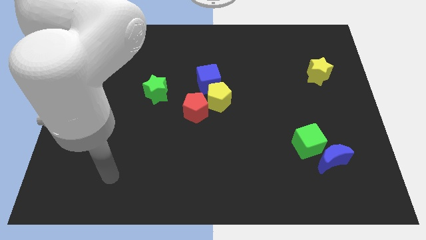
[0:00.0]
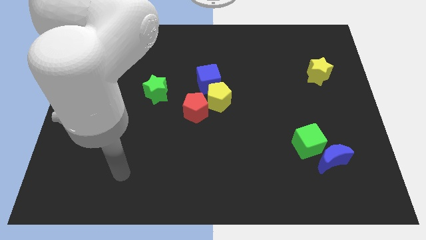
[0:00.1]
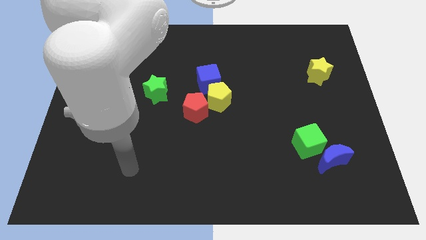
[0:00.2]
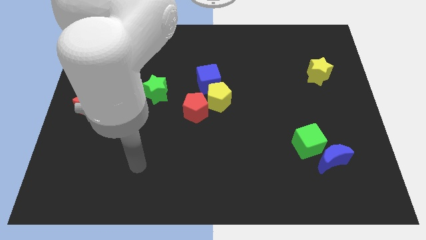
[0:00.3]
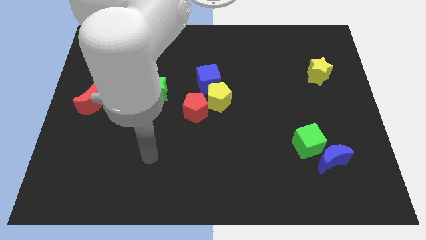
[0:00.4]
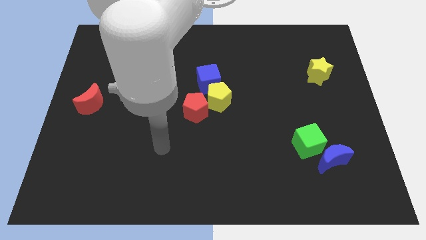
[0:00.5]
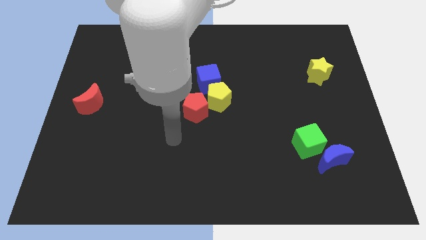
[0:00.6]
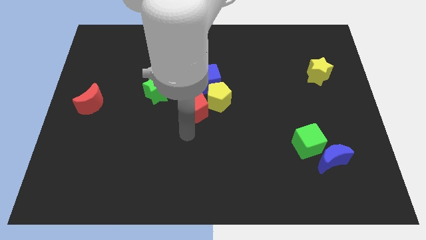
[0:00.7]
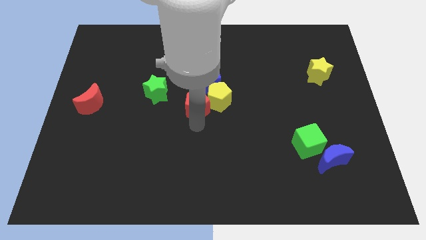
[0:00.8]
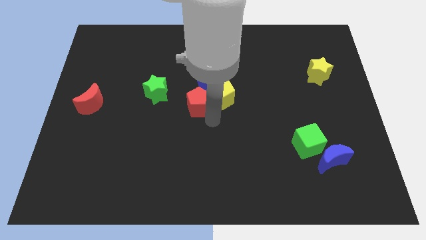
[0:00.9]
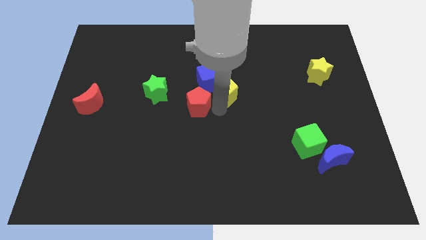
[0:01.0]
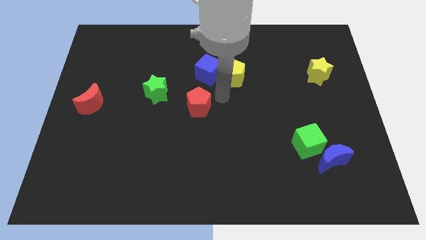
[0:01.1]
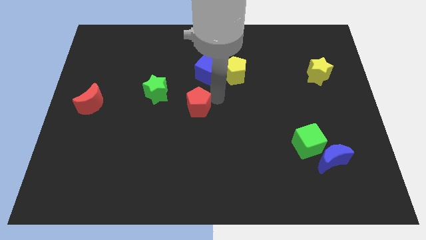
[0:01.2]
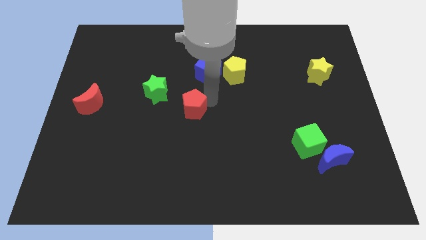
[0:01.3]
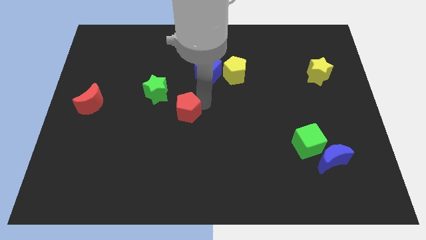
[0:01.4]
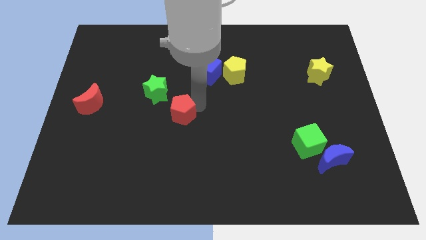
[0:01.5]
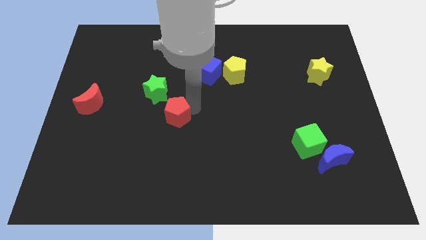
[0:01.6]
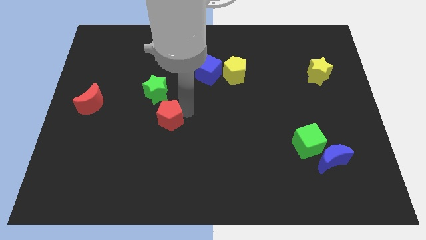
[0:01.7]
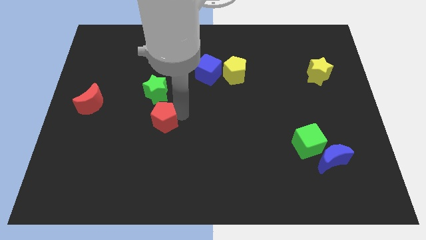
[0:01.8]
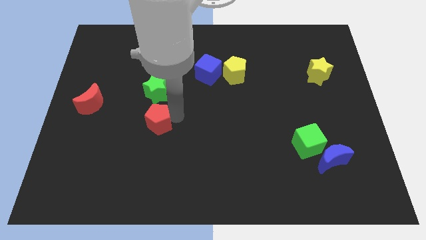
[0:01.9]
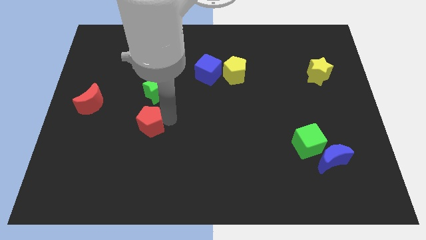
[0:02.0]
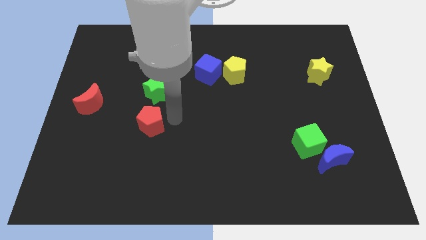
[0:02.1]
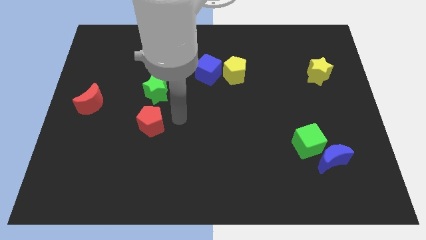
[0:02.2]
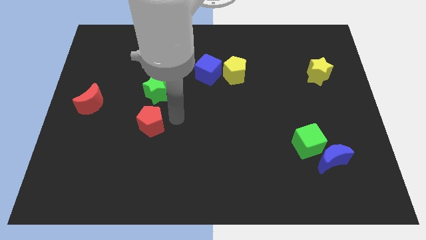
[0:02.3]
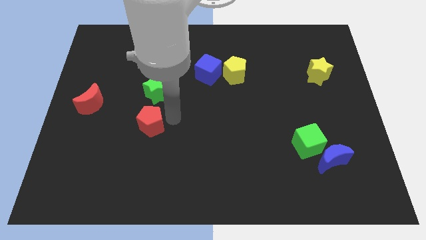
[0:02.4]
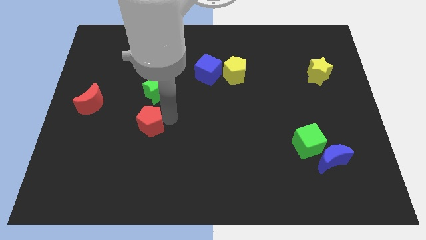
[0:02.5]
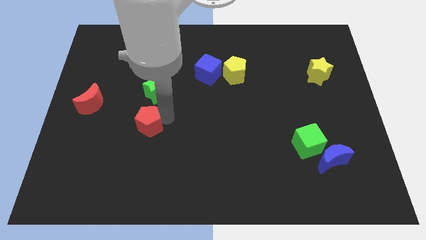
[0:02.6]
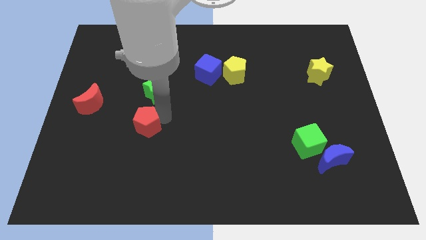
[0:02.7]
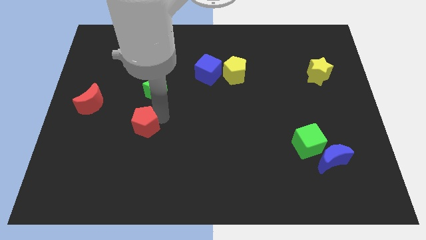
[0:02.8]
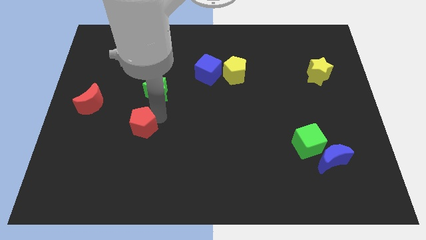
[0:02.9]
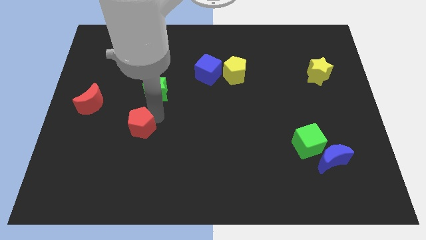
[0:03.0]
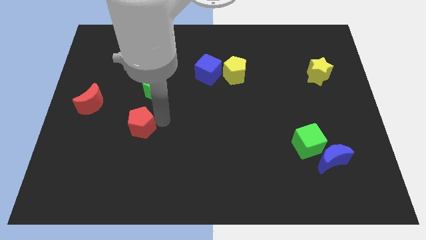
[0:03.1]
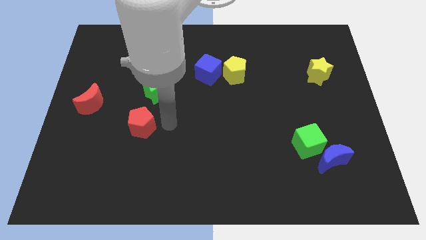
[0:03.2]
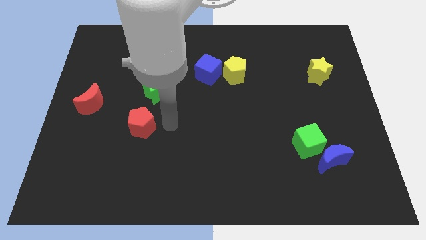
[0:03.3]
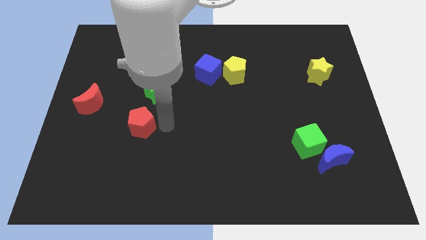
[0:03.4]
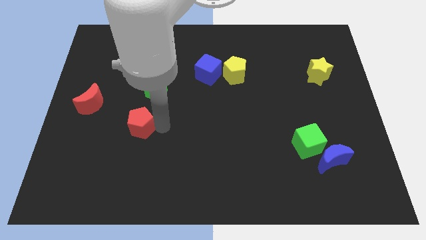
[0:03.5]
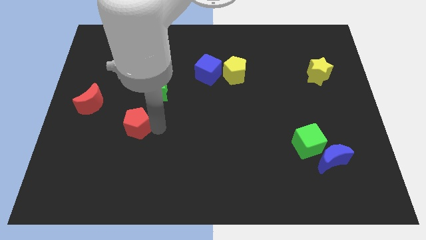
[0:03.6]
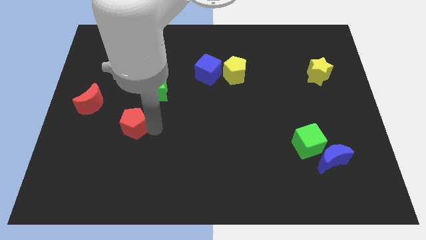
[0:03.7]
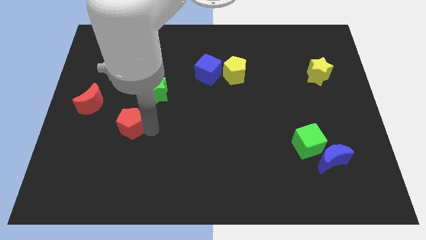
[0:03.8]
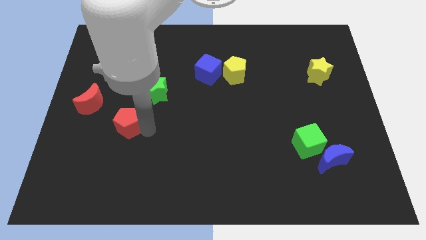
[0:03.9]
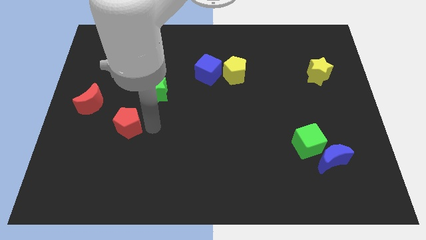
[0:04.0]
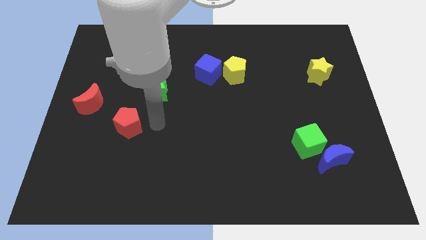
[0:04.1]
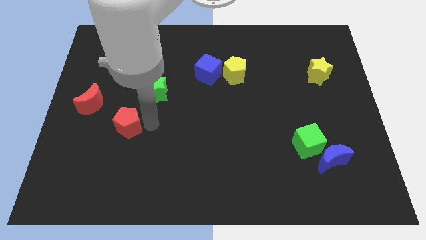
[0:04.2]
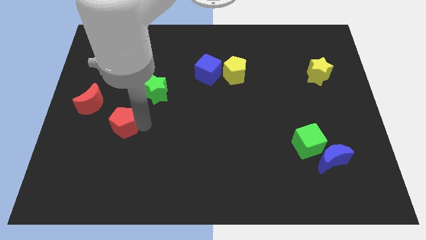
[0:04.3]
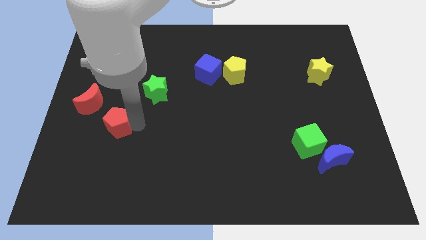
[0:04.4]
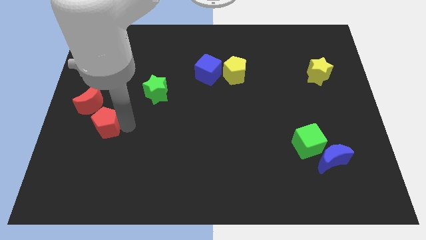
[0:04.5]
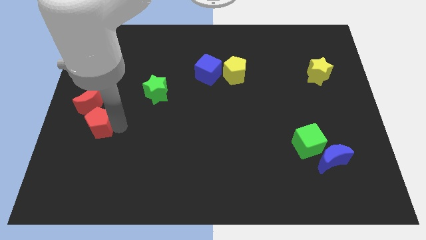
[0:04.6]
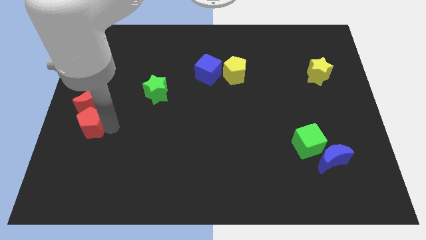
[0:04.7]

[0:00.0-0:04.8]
move the red pentagon to the left side

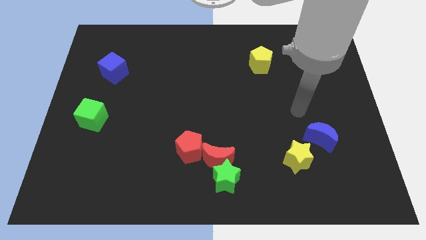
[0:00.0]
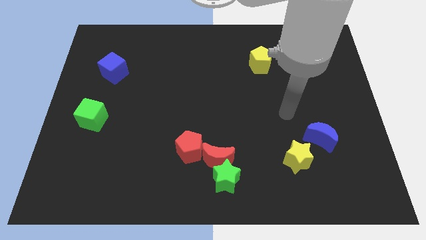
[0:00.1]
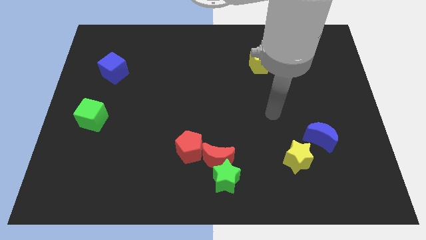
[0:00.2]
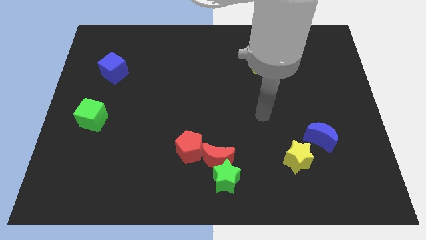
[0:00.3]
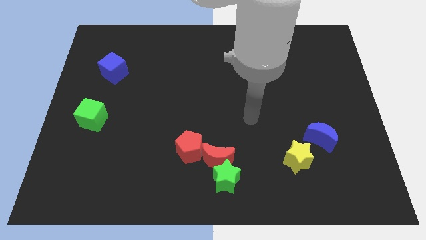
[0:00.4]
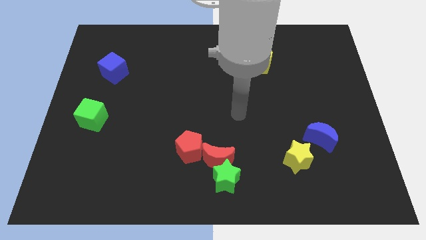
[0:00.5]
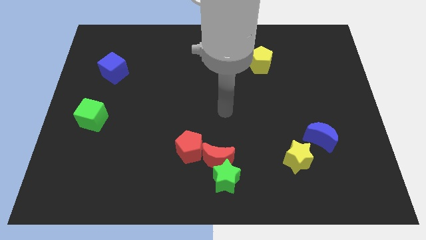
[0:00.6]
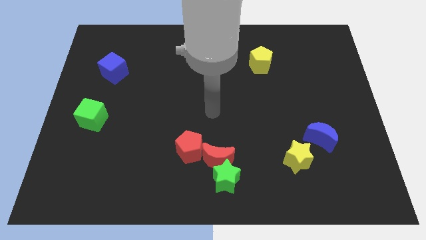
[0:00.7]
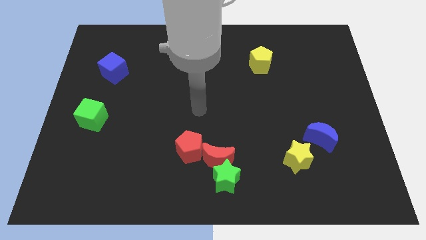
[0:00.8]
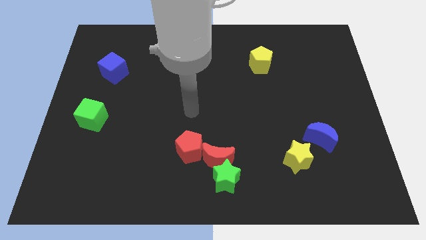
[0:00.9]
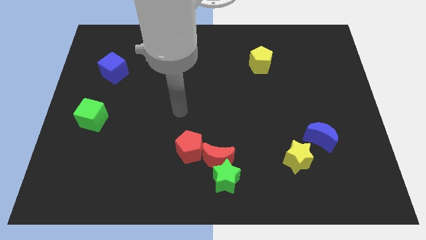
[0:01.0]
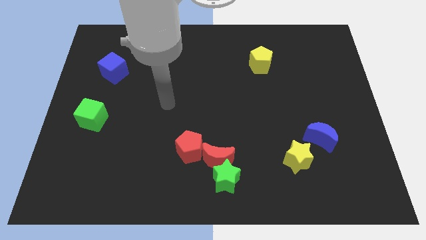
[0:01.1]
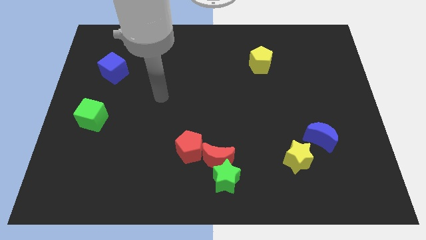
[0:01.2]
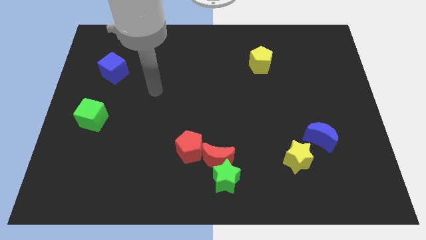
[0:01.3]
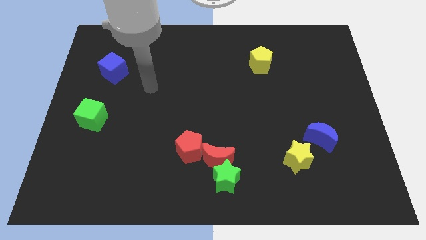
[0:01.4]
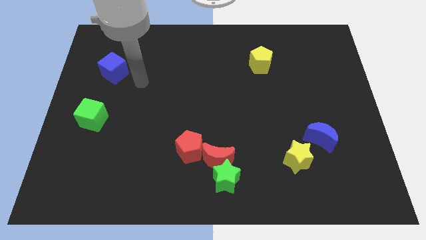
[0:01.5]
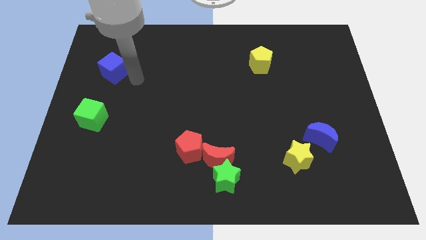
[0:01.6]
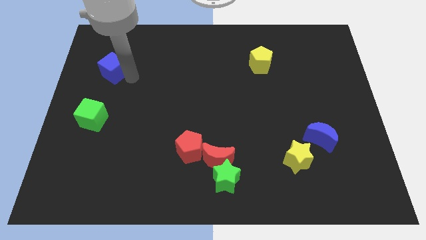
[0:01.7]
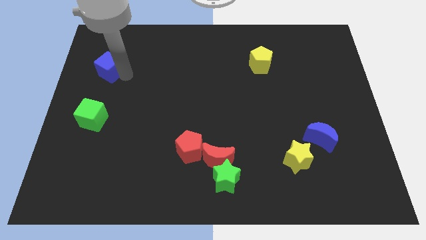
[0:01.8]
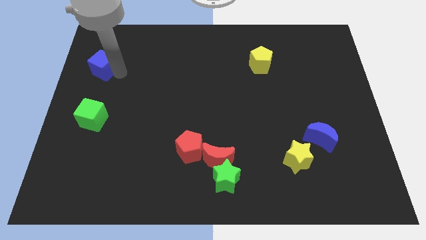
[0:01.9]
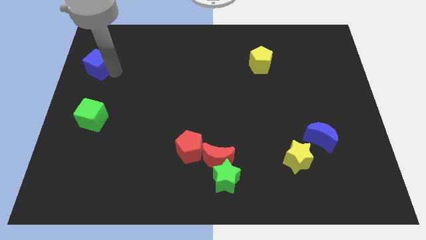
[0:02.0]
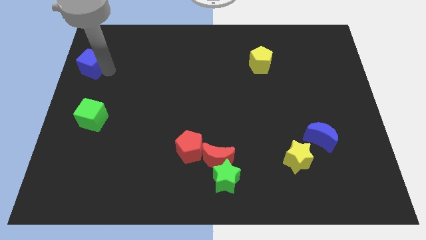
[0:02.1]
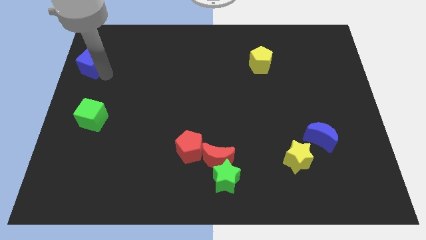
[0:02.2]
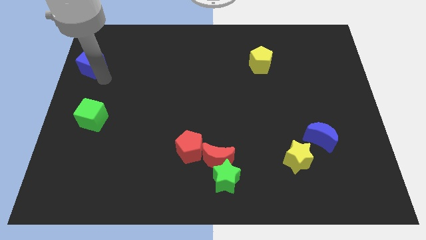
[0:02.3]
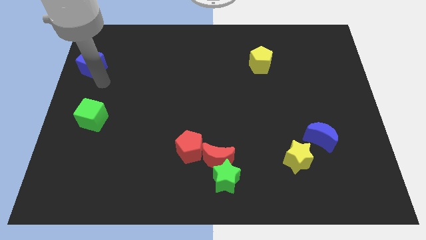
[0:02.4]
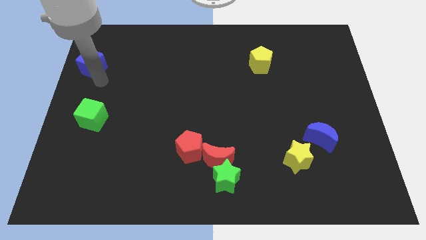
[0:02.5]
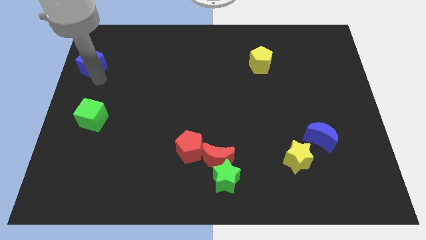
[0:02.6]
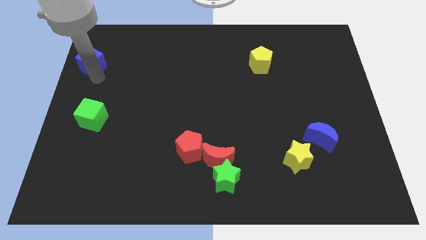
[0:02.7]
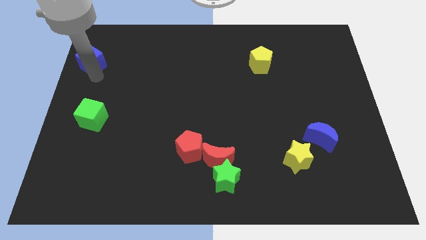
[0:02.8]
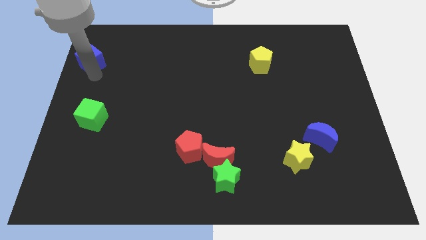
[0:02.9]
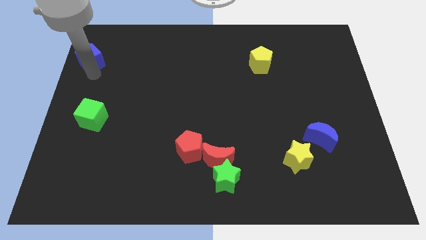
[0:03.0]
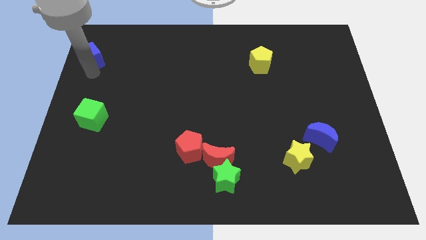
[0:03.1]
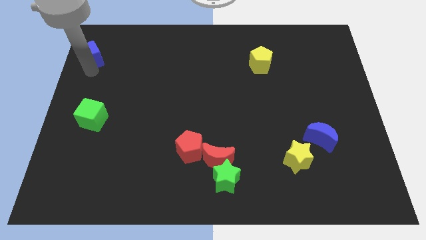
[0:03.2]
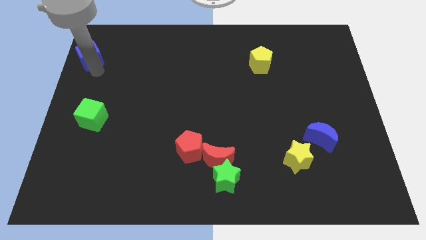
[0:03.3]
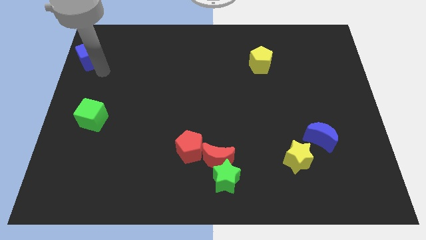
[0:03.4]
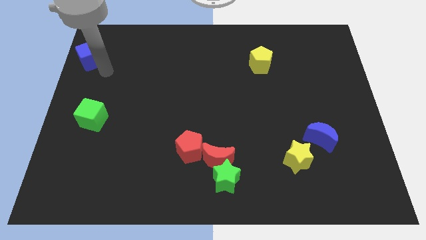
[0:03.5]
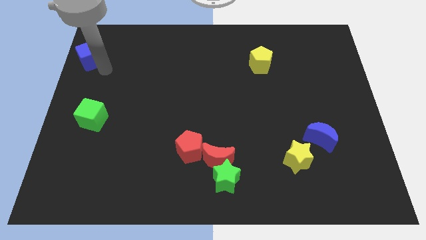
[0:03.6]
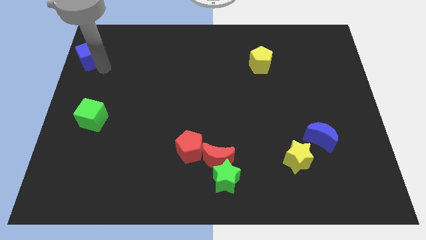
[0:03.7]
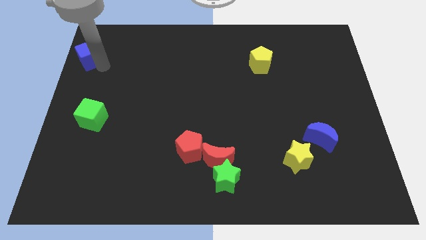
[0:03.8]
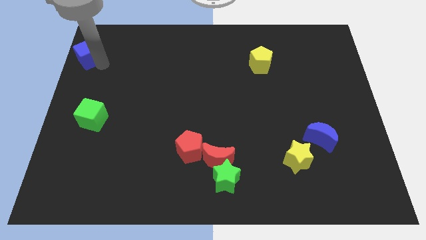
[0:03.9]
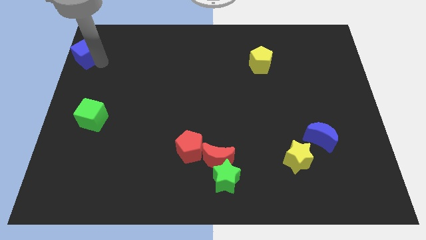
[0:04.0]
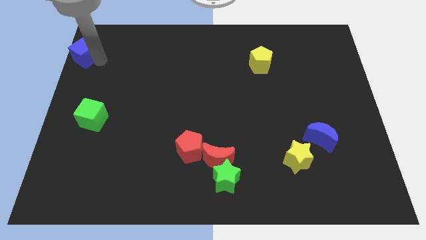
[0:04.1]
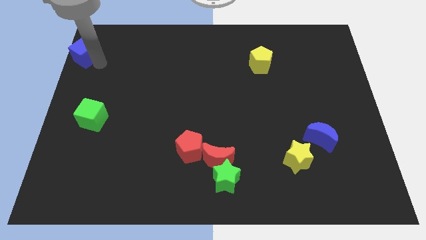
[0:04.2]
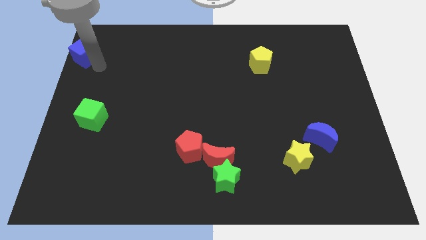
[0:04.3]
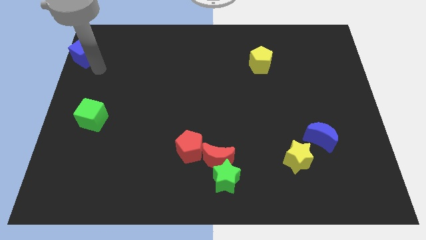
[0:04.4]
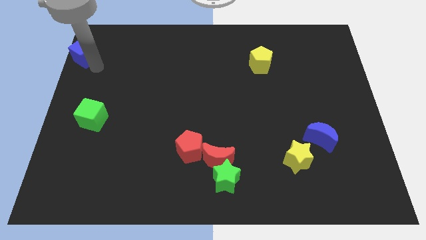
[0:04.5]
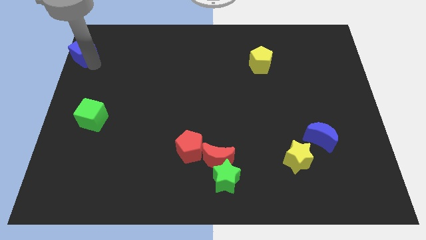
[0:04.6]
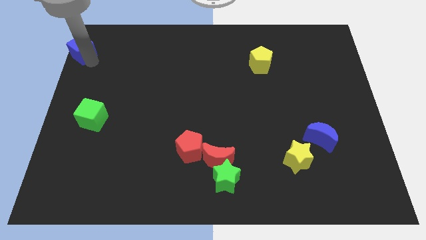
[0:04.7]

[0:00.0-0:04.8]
push the blue cube to the top left corner
